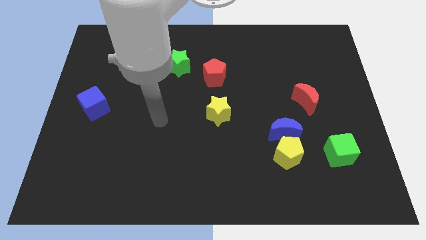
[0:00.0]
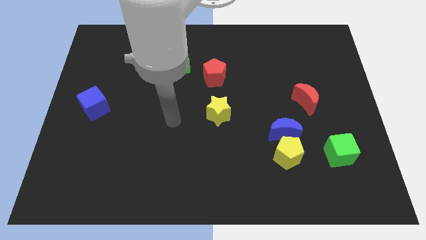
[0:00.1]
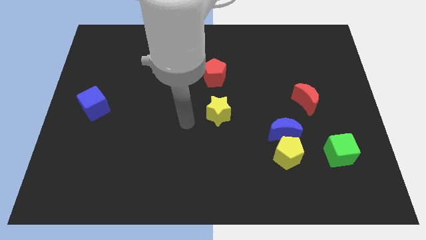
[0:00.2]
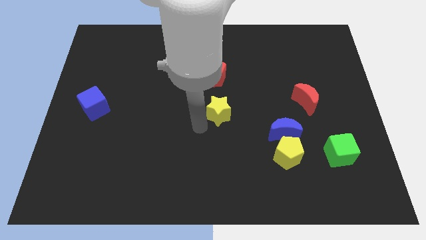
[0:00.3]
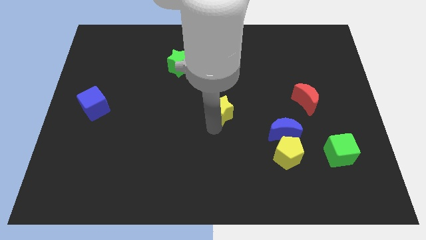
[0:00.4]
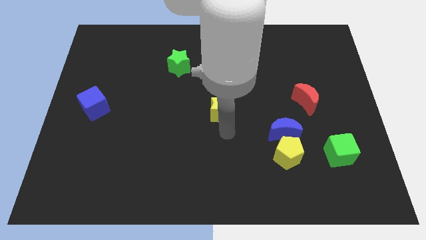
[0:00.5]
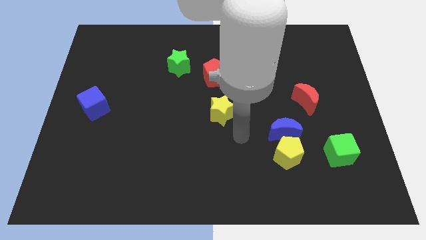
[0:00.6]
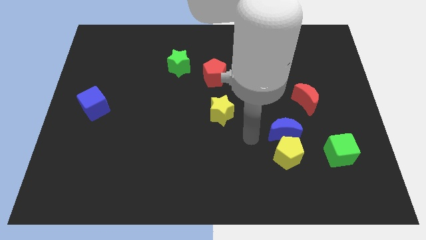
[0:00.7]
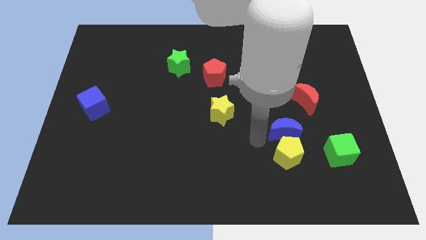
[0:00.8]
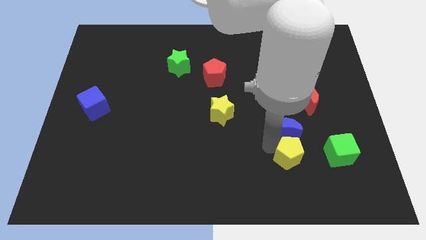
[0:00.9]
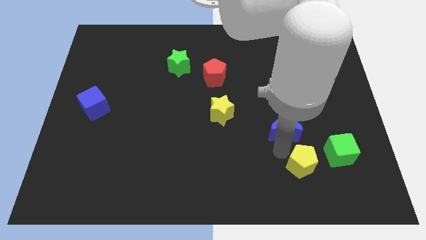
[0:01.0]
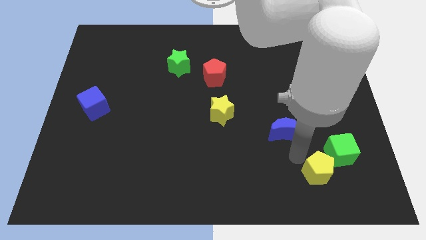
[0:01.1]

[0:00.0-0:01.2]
move the blue moon away from the yellow pentagon

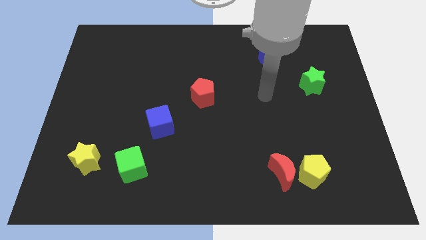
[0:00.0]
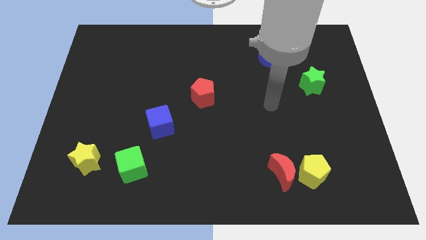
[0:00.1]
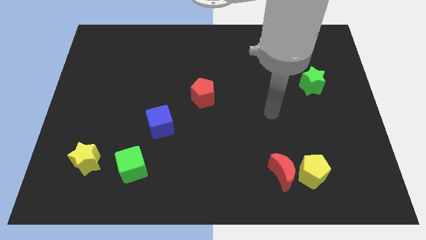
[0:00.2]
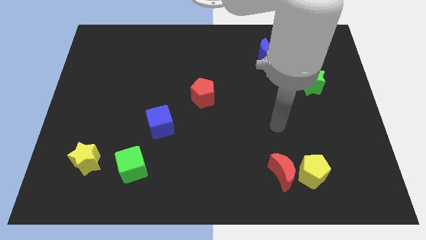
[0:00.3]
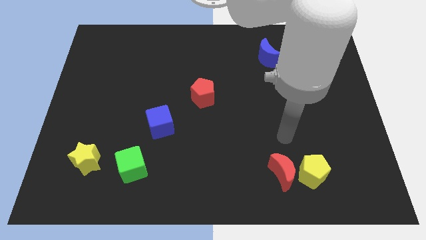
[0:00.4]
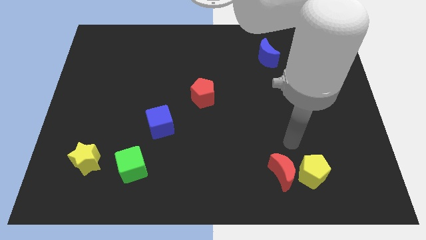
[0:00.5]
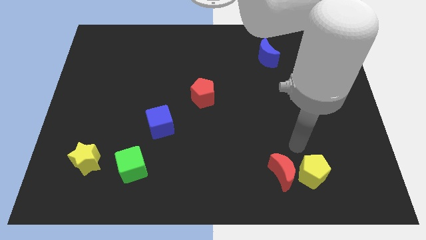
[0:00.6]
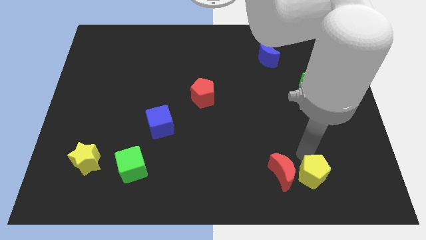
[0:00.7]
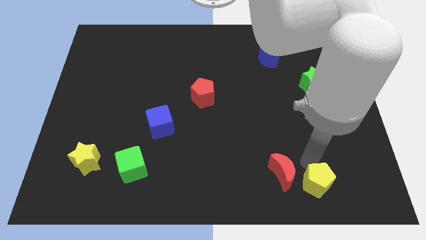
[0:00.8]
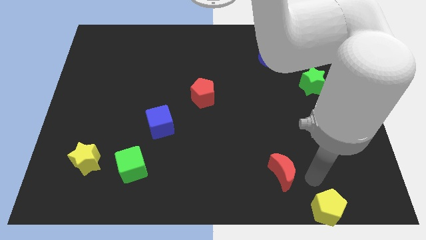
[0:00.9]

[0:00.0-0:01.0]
separate the red moon from the yellow pentagon

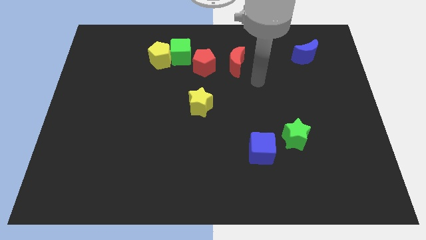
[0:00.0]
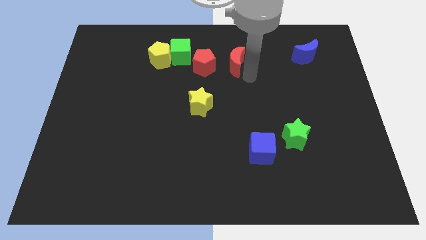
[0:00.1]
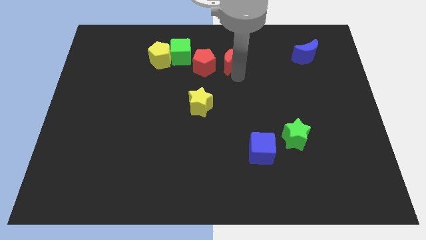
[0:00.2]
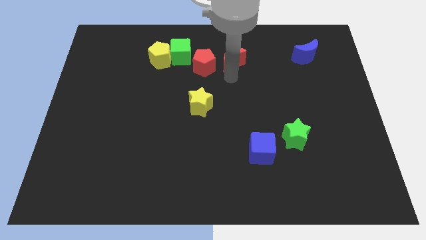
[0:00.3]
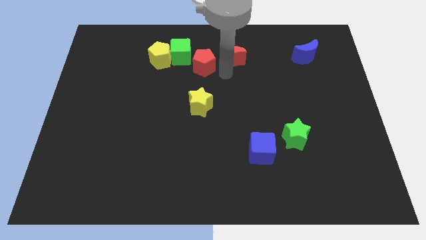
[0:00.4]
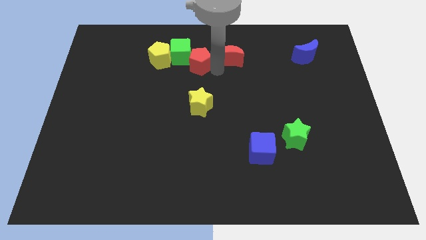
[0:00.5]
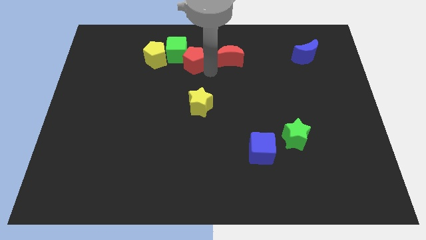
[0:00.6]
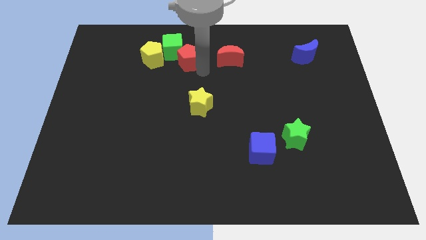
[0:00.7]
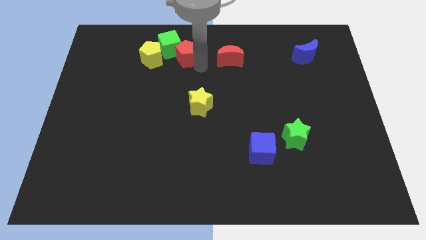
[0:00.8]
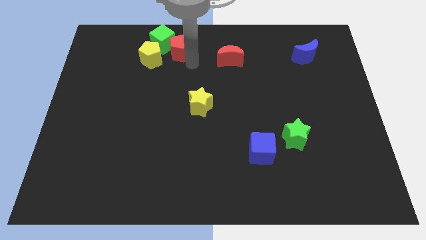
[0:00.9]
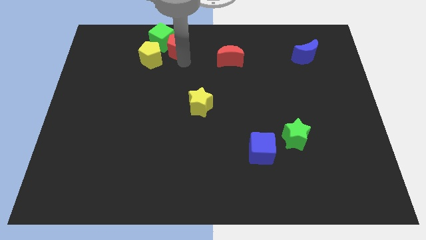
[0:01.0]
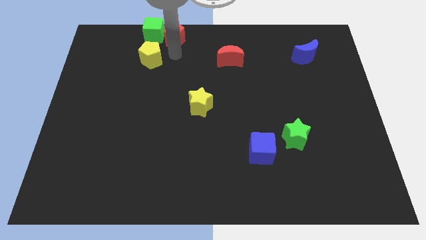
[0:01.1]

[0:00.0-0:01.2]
pull the yellow pentagon apart from the green cube

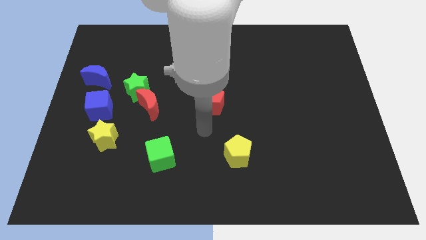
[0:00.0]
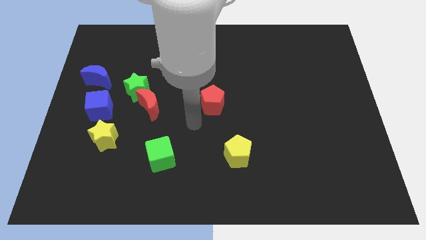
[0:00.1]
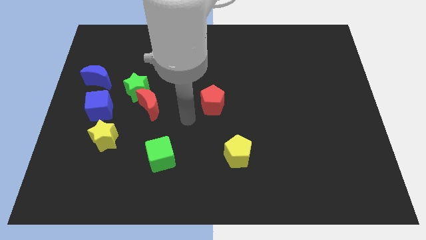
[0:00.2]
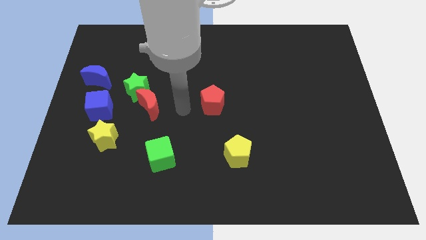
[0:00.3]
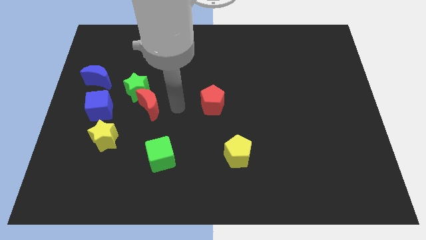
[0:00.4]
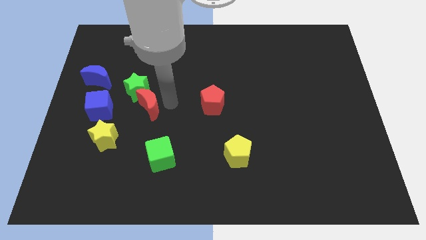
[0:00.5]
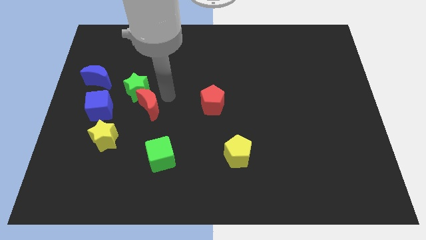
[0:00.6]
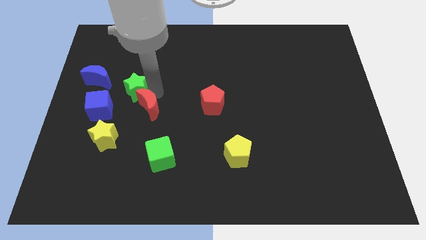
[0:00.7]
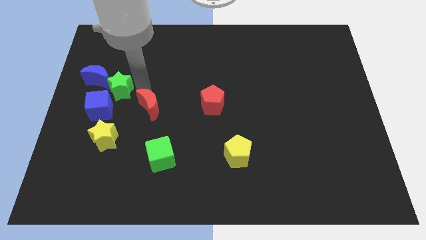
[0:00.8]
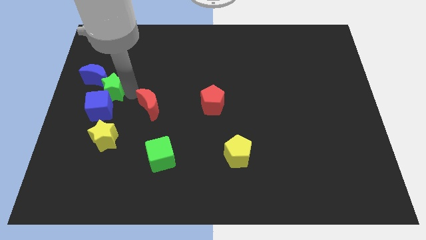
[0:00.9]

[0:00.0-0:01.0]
separate the red moon from the green star

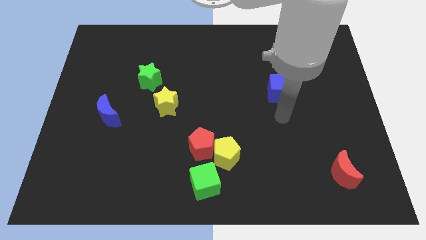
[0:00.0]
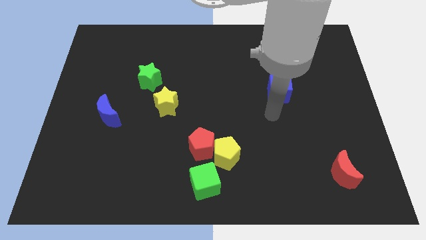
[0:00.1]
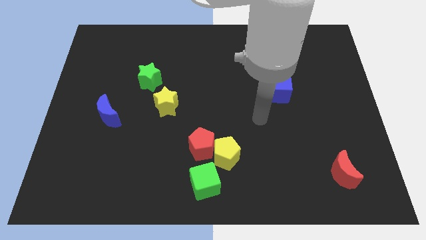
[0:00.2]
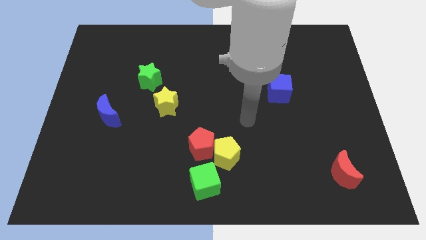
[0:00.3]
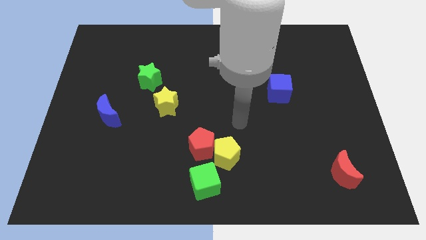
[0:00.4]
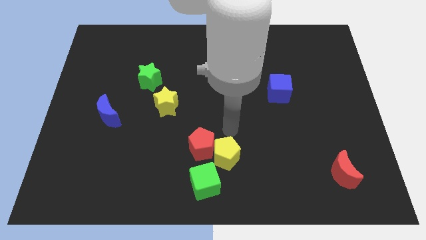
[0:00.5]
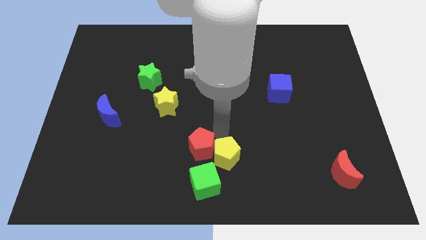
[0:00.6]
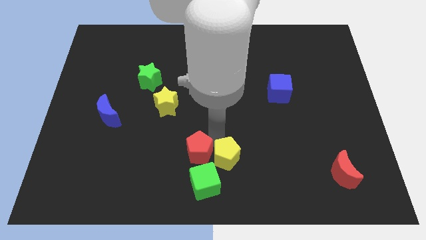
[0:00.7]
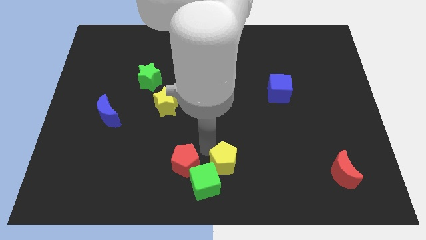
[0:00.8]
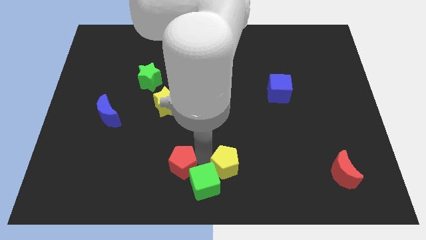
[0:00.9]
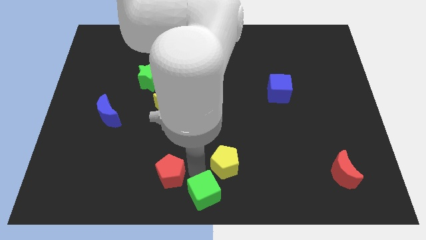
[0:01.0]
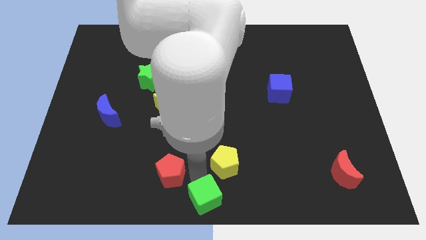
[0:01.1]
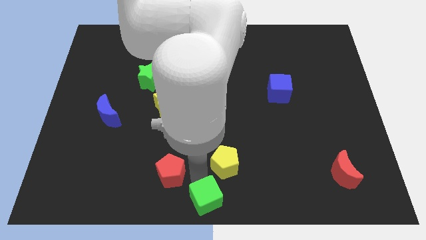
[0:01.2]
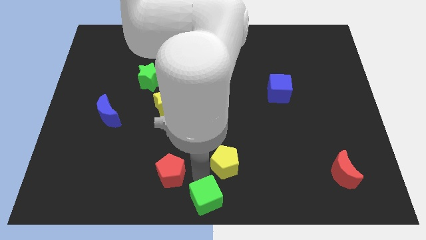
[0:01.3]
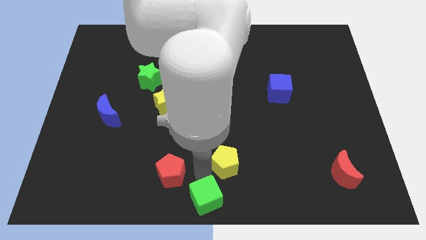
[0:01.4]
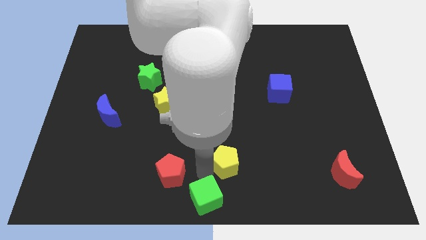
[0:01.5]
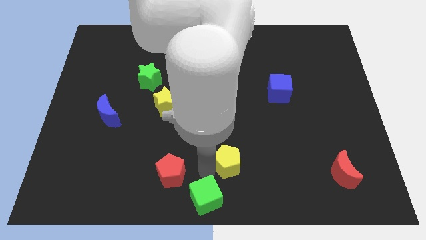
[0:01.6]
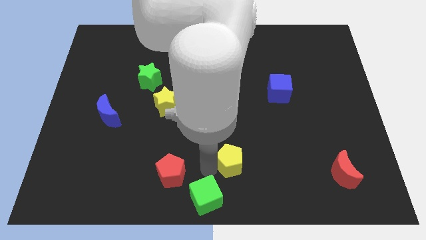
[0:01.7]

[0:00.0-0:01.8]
pull the yellow pentagon apart from the red pentagon and green cube

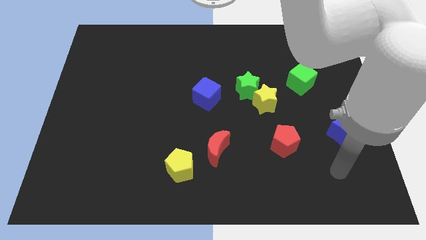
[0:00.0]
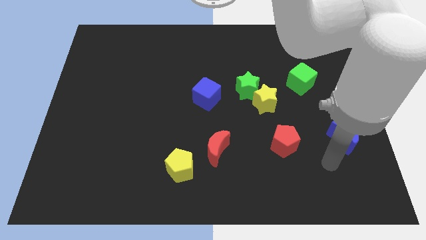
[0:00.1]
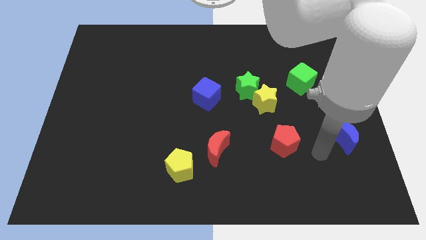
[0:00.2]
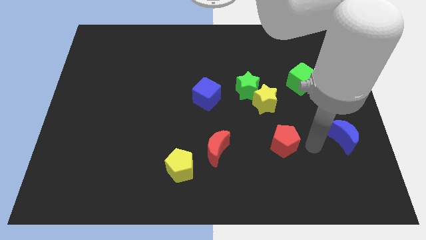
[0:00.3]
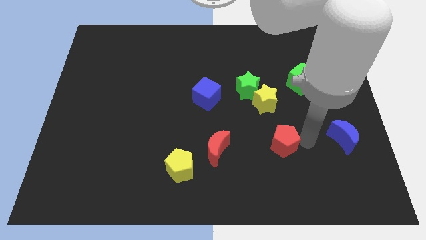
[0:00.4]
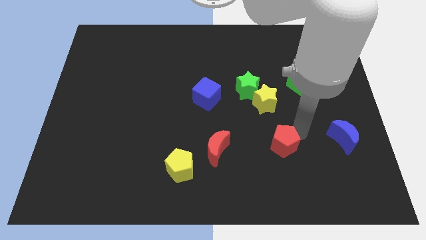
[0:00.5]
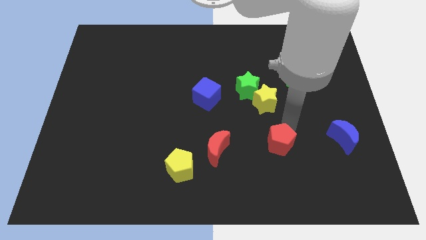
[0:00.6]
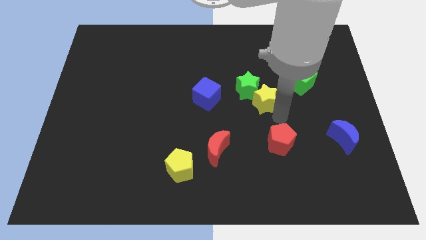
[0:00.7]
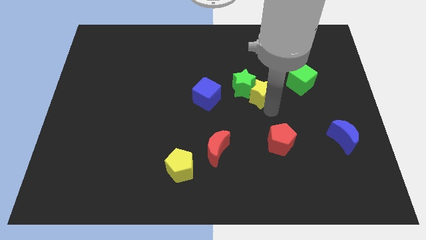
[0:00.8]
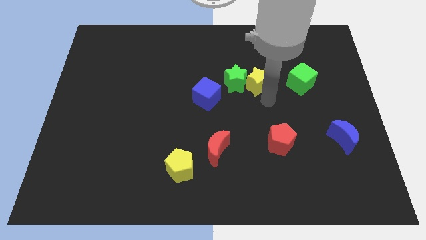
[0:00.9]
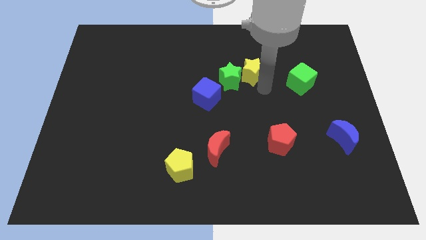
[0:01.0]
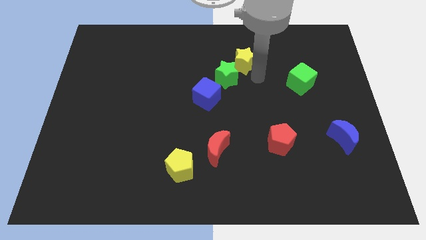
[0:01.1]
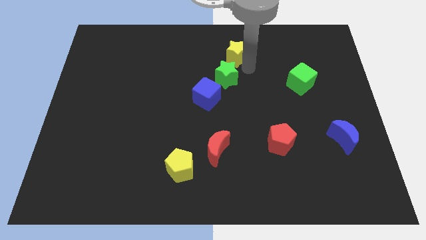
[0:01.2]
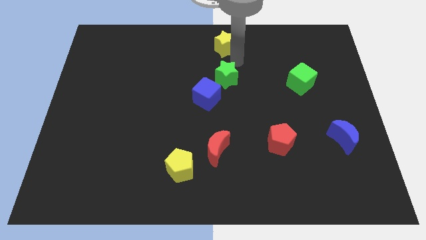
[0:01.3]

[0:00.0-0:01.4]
pull the green star apart from the yellow star

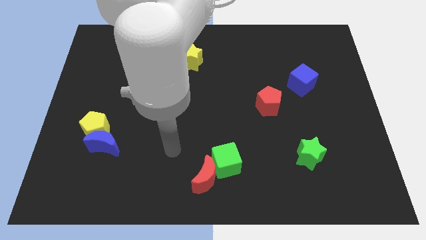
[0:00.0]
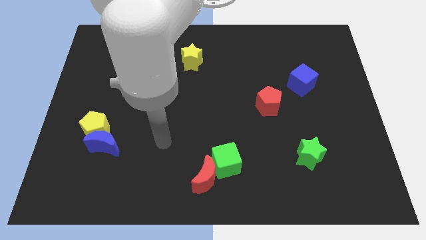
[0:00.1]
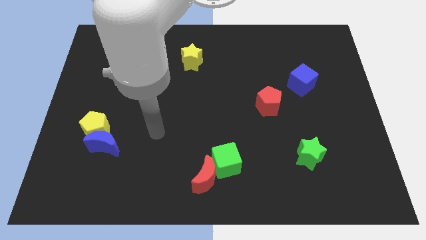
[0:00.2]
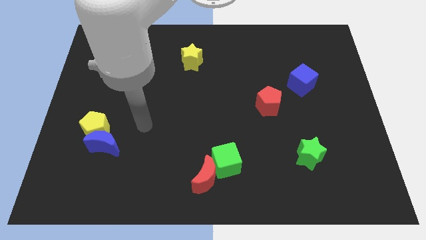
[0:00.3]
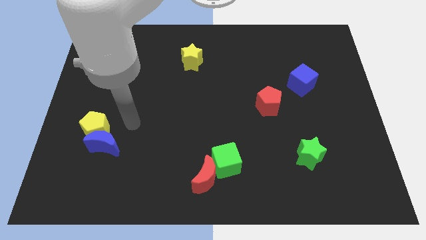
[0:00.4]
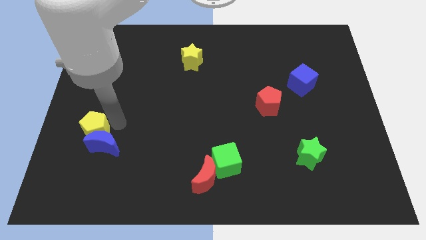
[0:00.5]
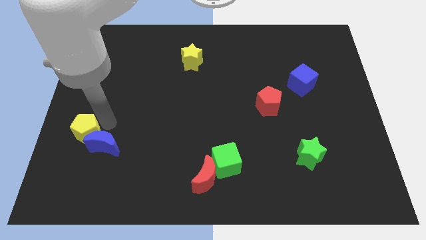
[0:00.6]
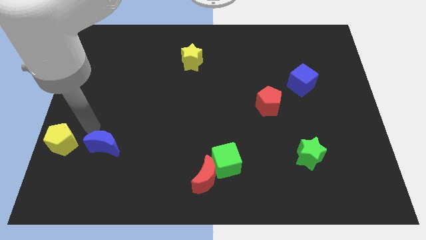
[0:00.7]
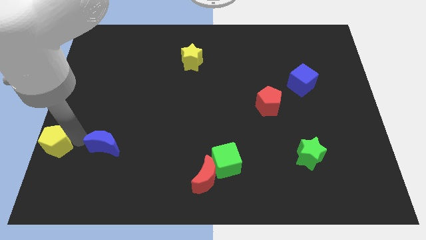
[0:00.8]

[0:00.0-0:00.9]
pull the blue moon apart from the yellow pentagon

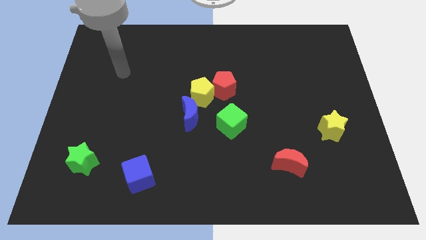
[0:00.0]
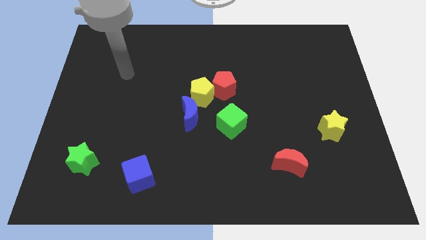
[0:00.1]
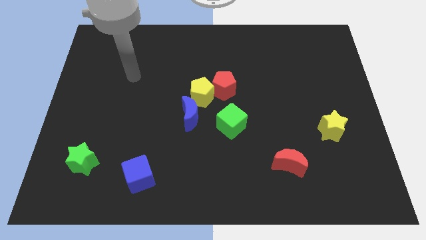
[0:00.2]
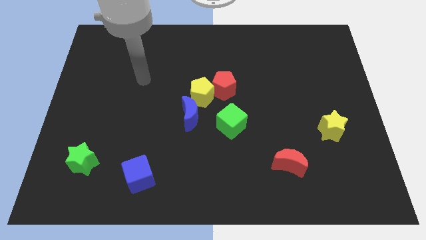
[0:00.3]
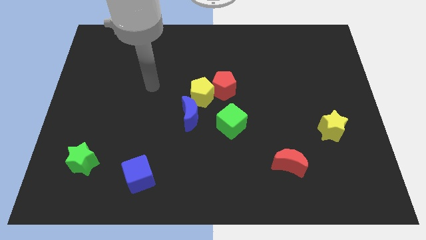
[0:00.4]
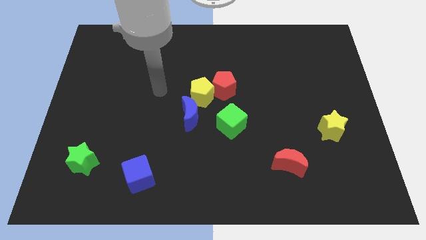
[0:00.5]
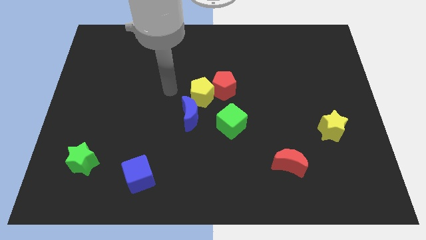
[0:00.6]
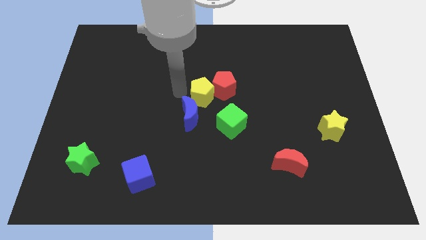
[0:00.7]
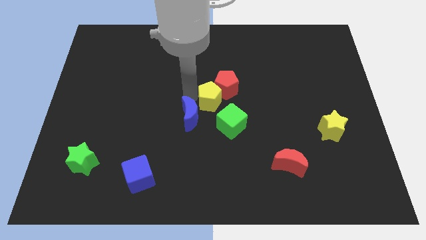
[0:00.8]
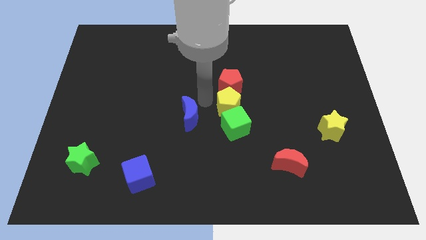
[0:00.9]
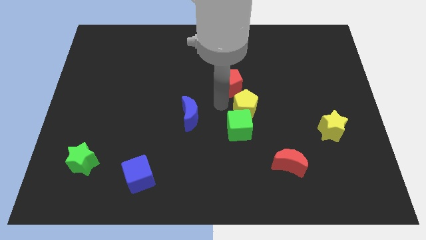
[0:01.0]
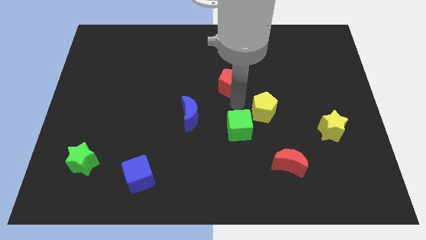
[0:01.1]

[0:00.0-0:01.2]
pull the red pentagon apart from the yellow pentagon
